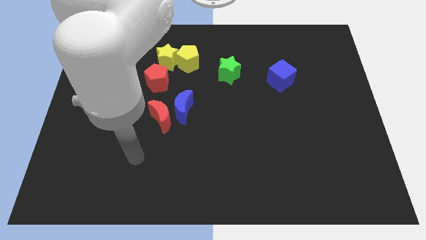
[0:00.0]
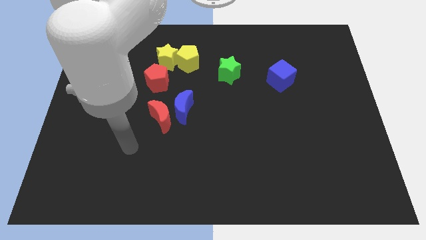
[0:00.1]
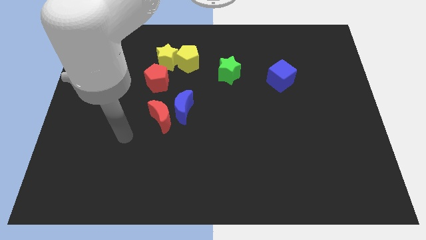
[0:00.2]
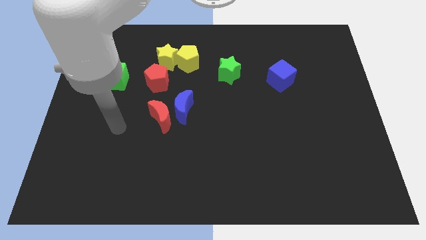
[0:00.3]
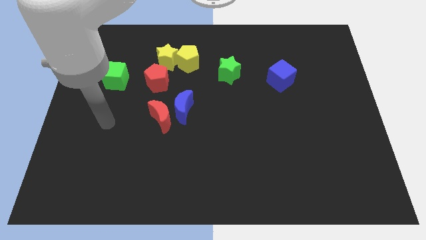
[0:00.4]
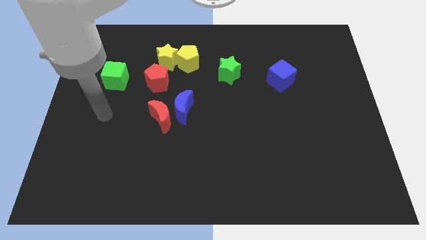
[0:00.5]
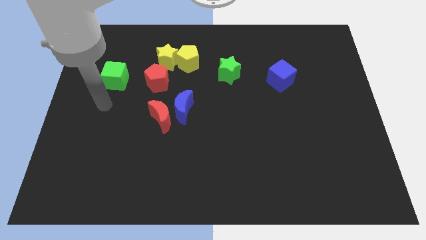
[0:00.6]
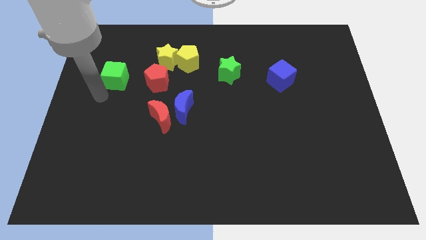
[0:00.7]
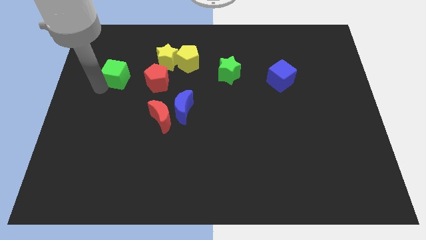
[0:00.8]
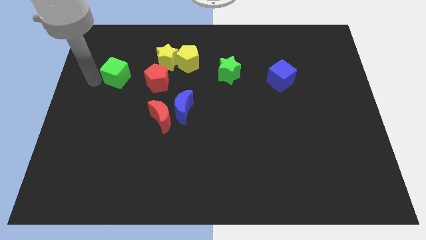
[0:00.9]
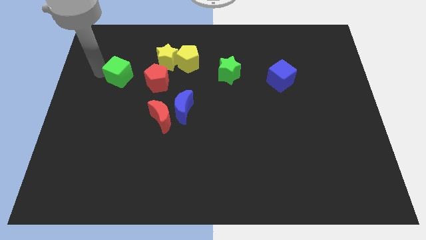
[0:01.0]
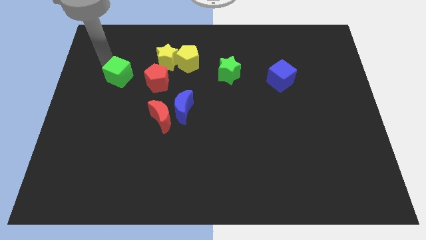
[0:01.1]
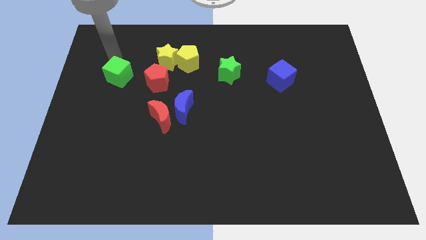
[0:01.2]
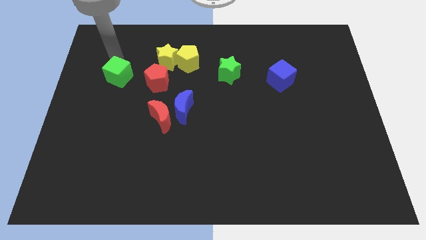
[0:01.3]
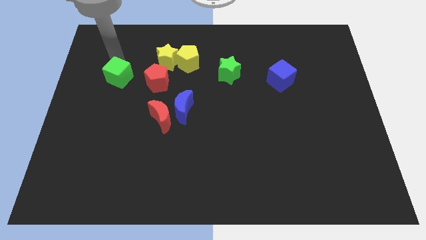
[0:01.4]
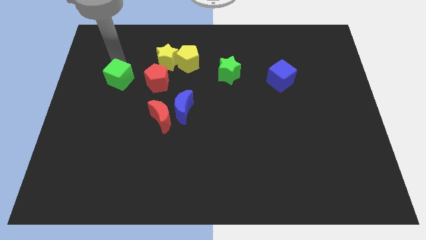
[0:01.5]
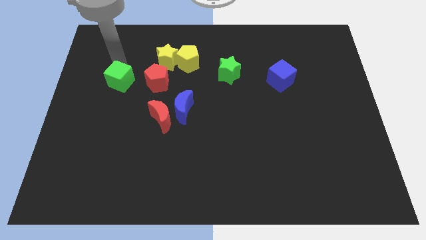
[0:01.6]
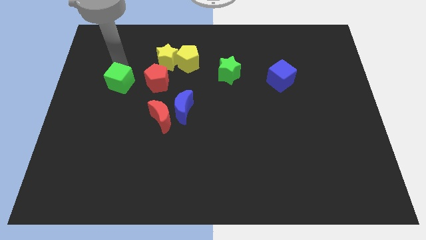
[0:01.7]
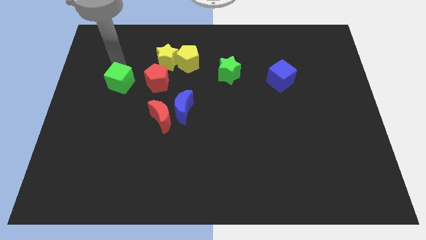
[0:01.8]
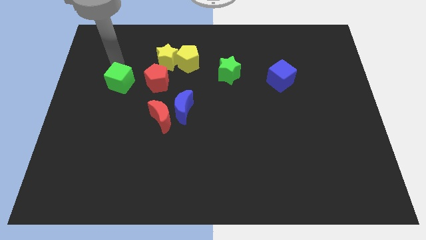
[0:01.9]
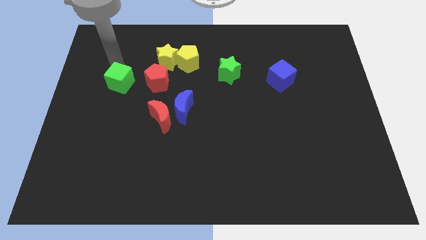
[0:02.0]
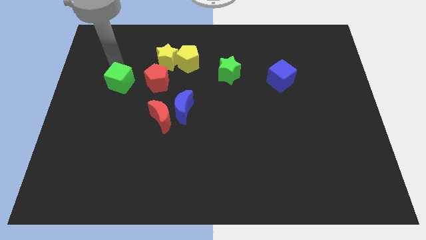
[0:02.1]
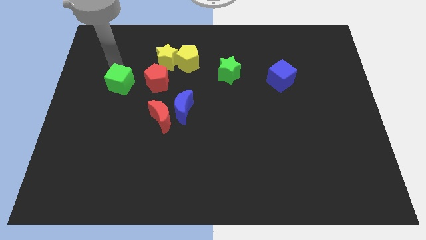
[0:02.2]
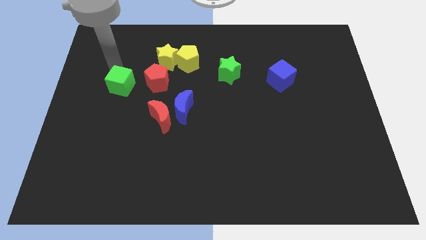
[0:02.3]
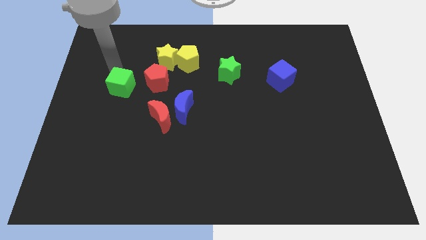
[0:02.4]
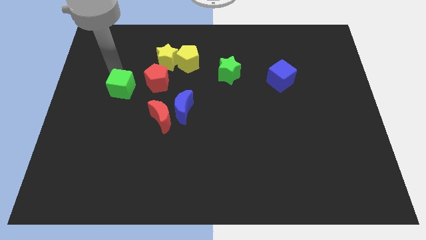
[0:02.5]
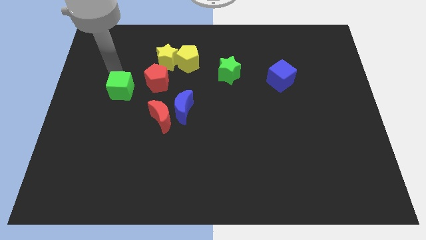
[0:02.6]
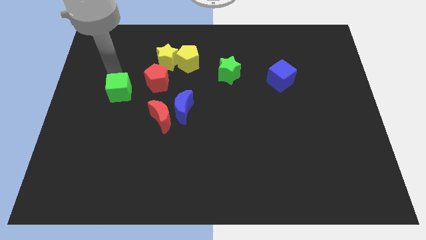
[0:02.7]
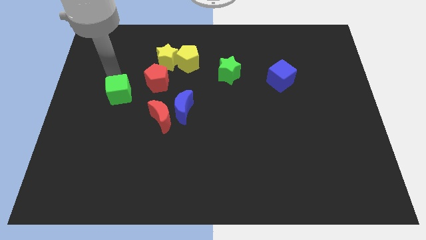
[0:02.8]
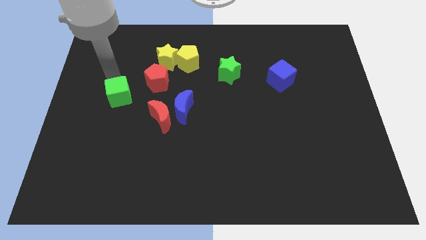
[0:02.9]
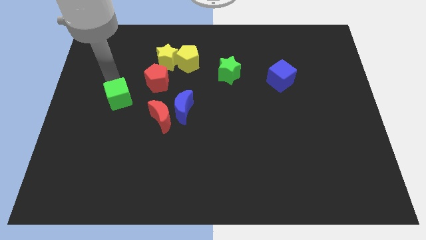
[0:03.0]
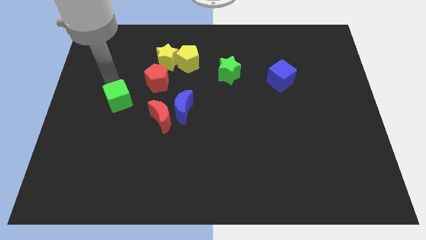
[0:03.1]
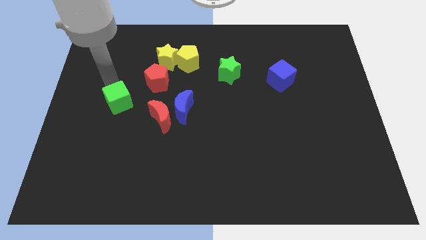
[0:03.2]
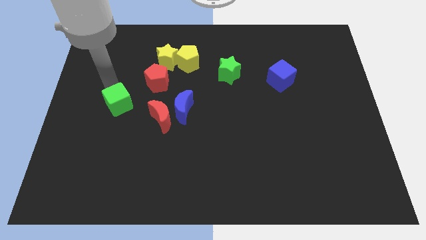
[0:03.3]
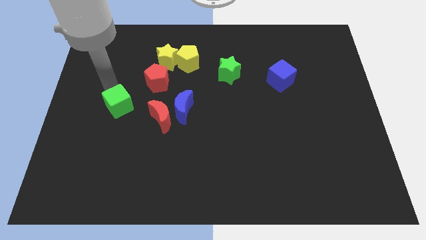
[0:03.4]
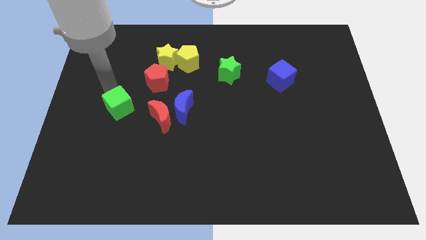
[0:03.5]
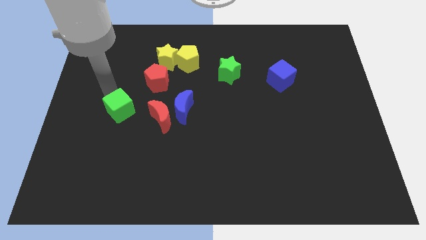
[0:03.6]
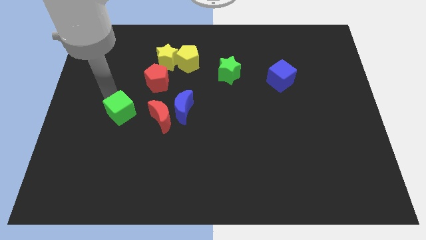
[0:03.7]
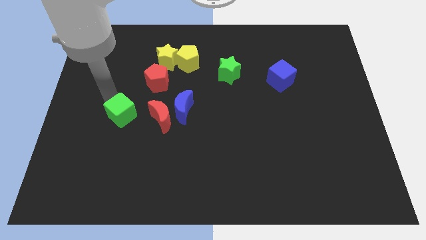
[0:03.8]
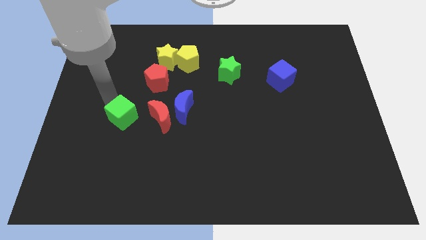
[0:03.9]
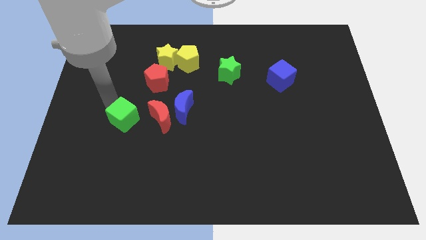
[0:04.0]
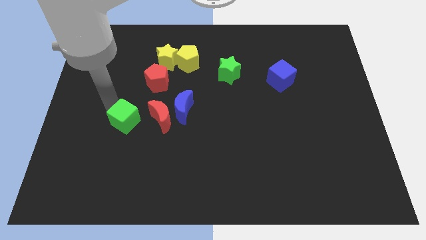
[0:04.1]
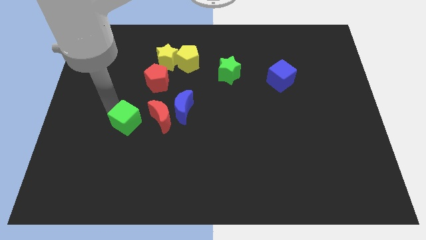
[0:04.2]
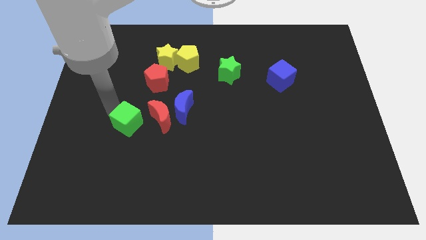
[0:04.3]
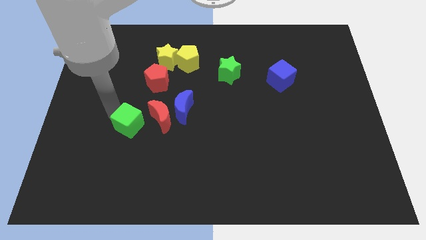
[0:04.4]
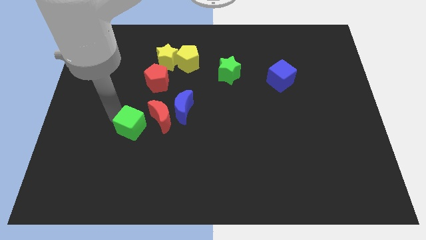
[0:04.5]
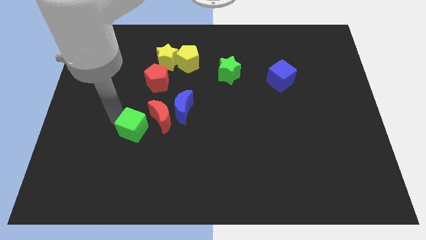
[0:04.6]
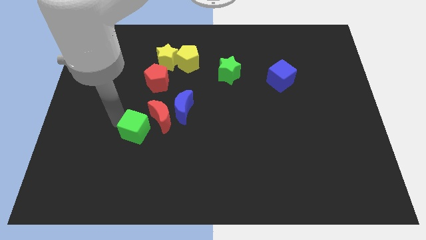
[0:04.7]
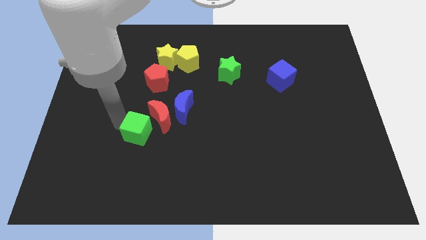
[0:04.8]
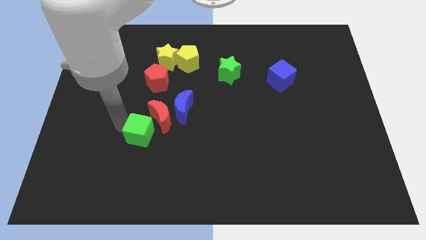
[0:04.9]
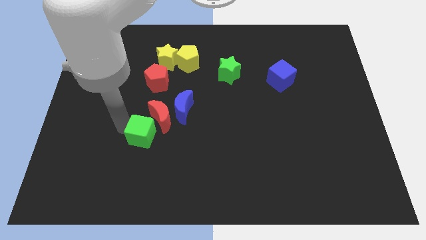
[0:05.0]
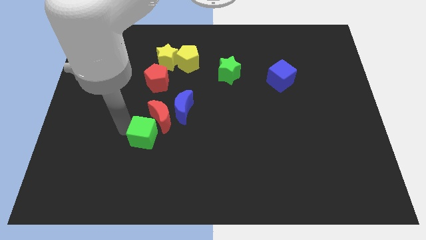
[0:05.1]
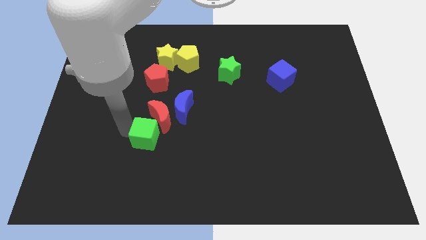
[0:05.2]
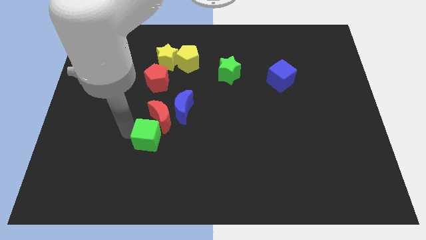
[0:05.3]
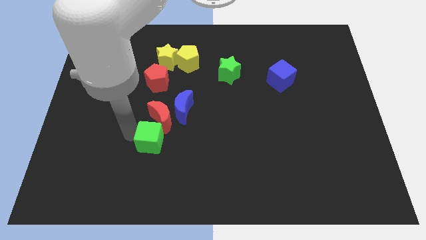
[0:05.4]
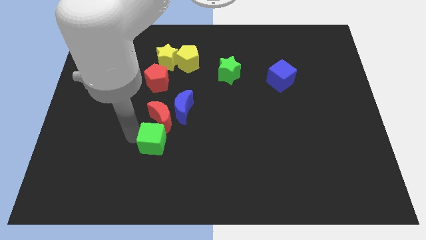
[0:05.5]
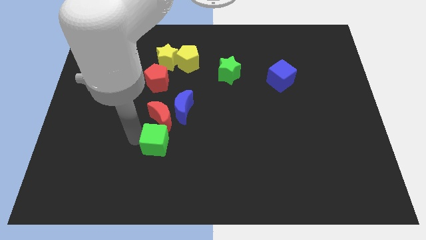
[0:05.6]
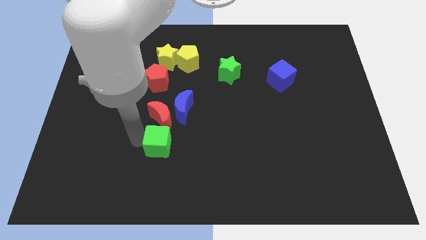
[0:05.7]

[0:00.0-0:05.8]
put the green cube diagonally down and to the right of the red moon
